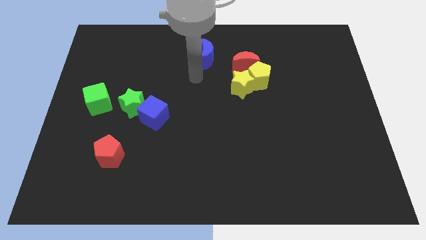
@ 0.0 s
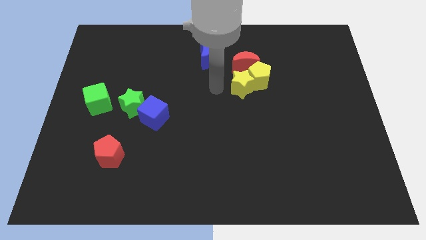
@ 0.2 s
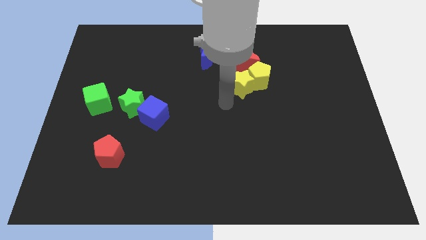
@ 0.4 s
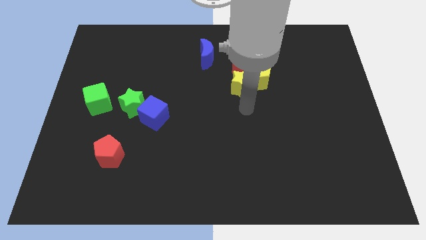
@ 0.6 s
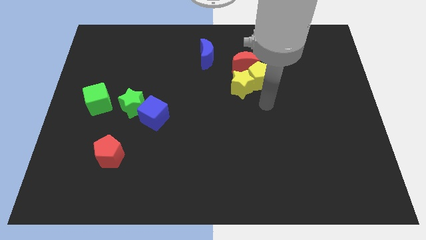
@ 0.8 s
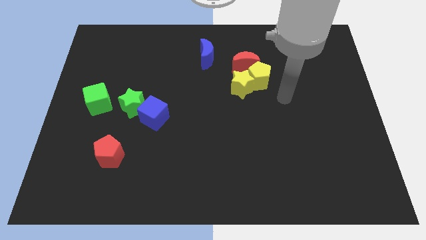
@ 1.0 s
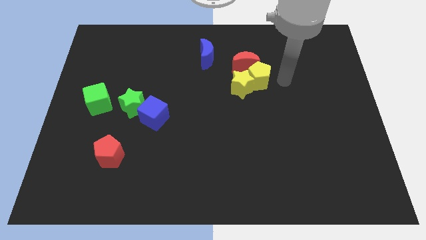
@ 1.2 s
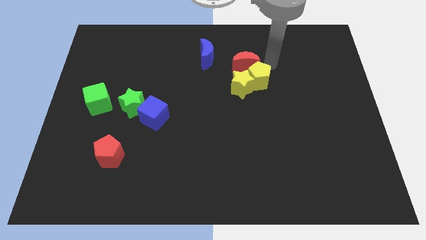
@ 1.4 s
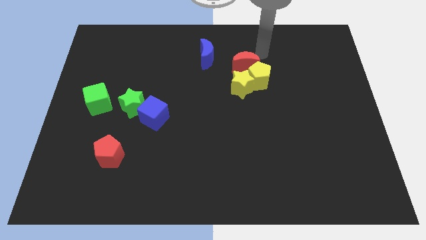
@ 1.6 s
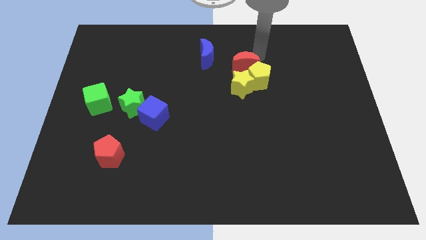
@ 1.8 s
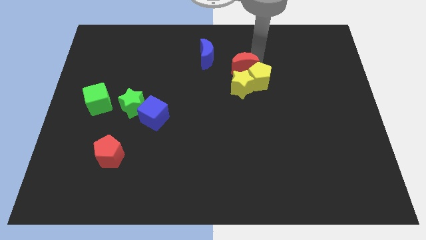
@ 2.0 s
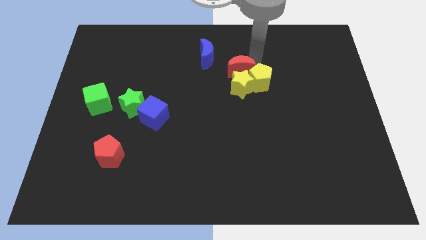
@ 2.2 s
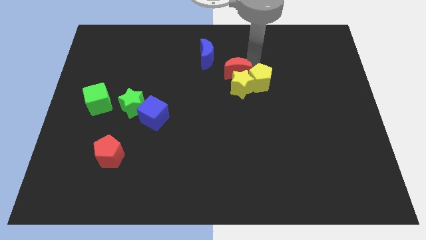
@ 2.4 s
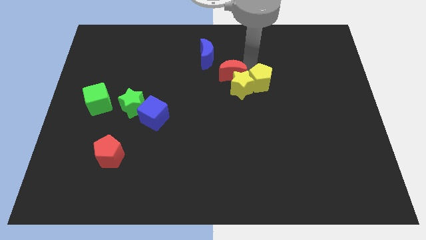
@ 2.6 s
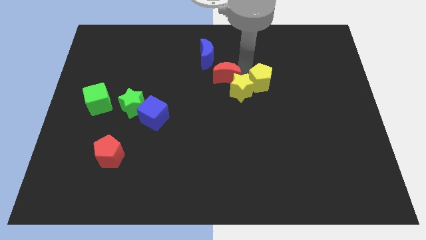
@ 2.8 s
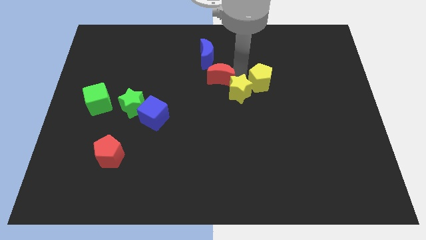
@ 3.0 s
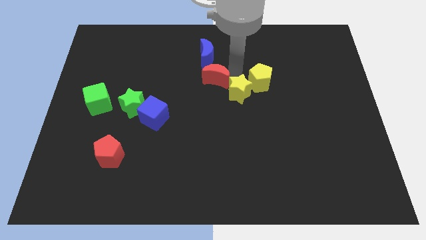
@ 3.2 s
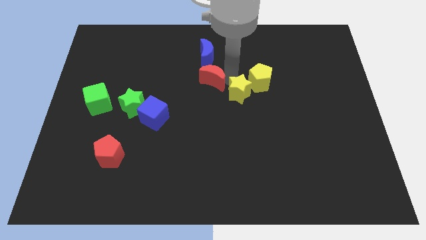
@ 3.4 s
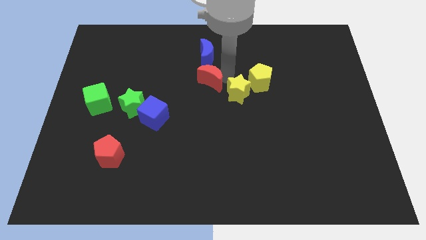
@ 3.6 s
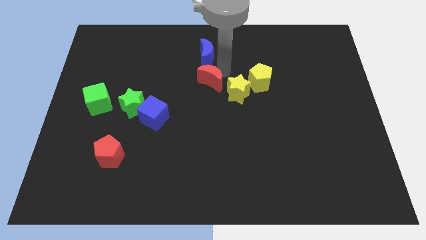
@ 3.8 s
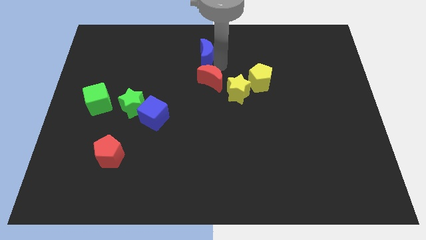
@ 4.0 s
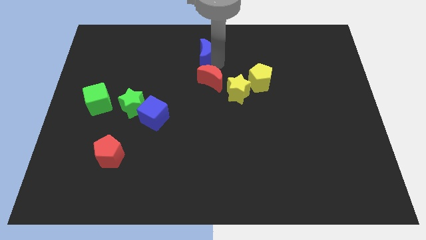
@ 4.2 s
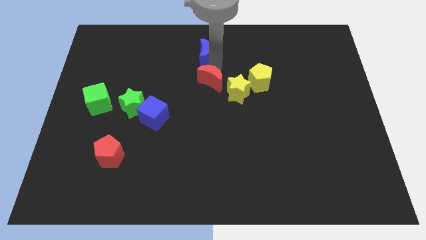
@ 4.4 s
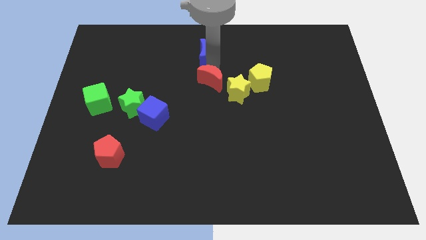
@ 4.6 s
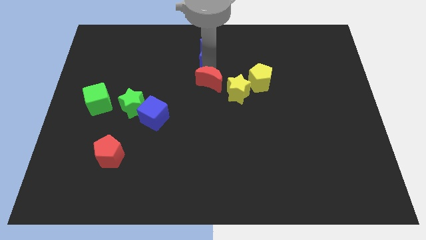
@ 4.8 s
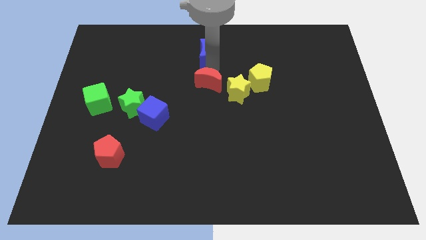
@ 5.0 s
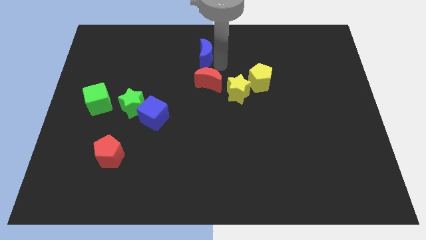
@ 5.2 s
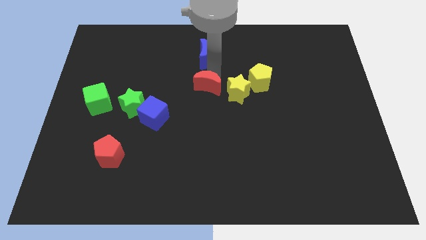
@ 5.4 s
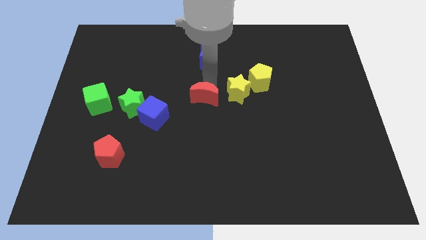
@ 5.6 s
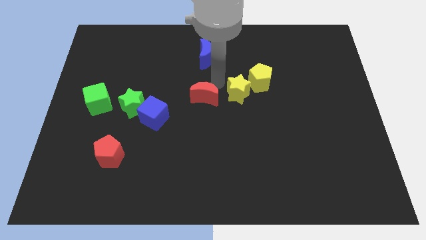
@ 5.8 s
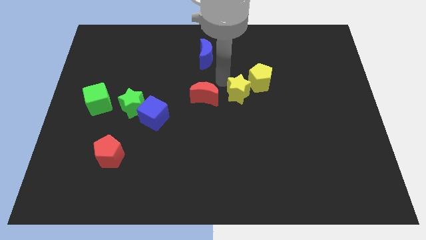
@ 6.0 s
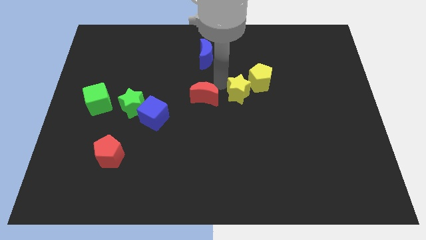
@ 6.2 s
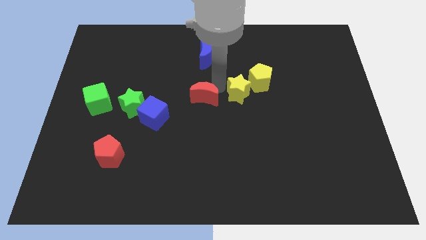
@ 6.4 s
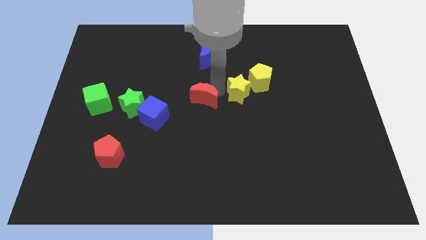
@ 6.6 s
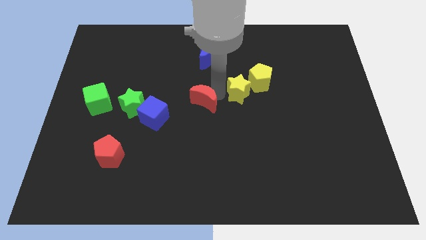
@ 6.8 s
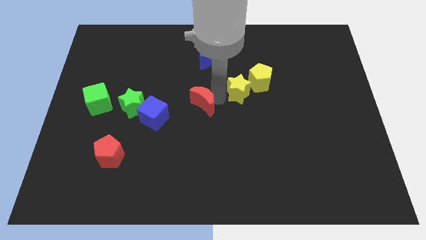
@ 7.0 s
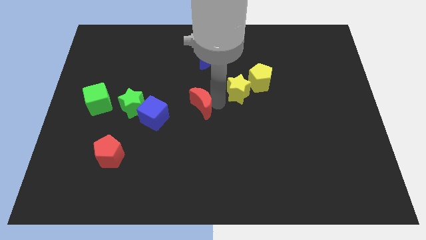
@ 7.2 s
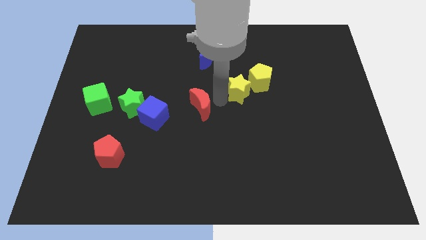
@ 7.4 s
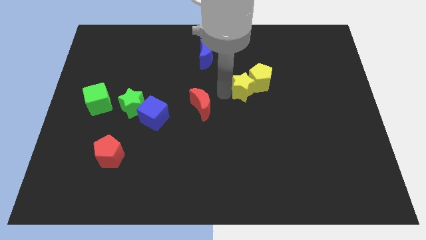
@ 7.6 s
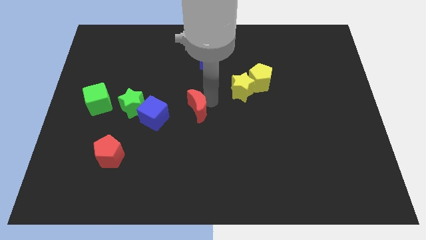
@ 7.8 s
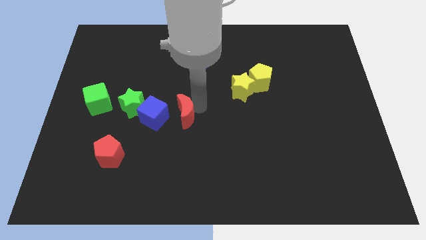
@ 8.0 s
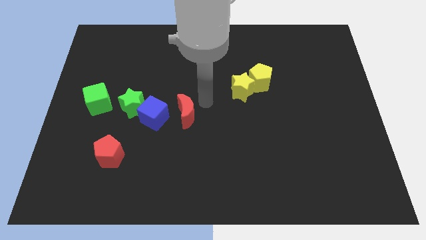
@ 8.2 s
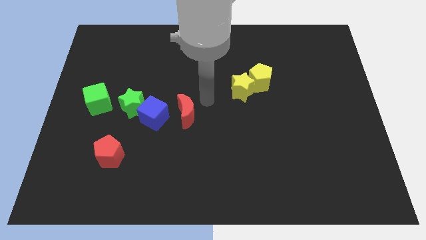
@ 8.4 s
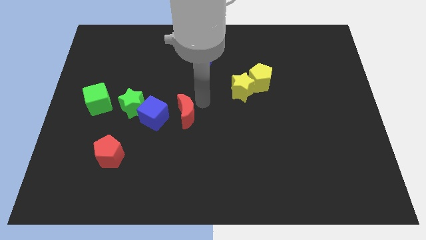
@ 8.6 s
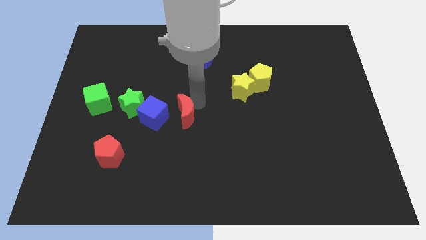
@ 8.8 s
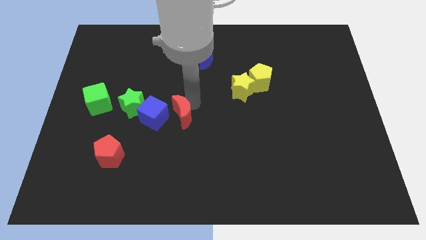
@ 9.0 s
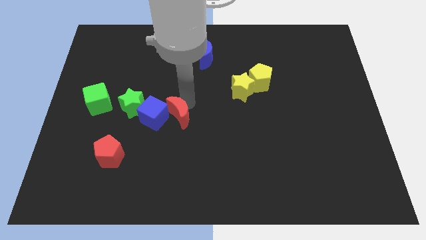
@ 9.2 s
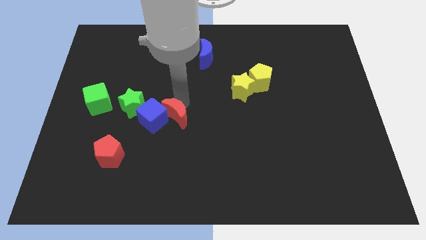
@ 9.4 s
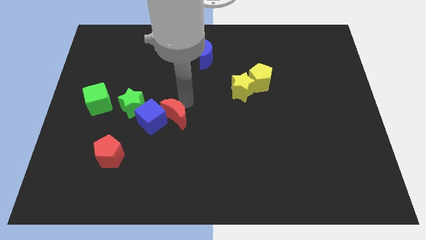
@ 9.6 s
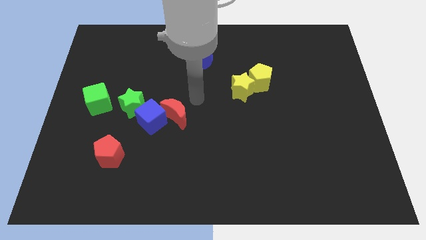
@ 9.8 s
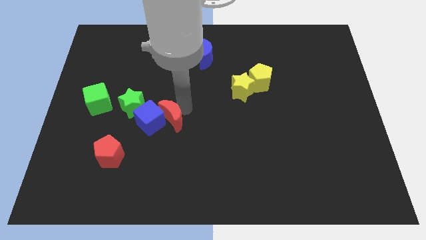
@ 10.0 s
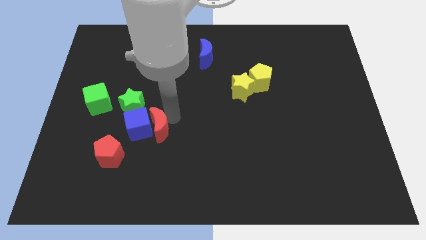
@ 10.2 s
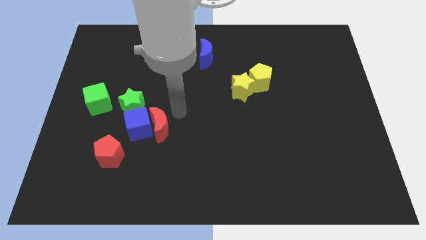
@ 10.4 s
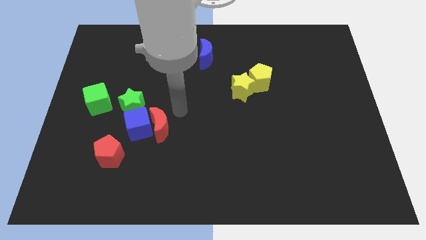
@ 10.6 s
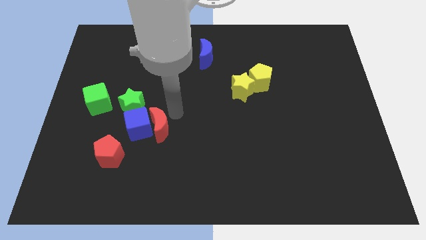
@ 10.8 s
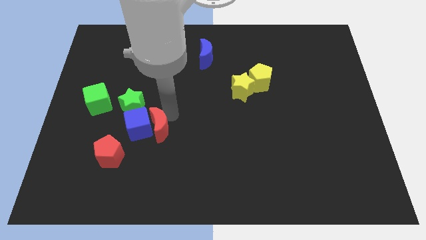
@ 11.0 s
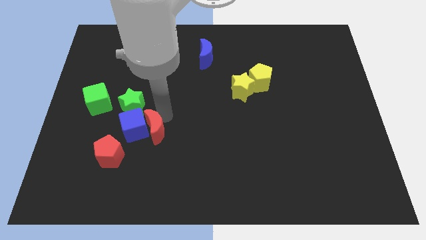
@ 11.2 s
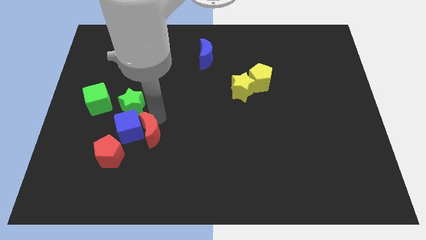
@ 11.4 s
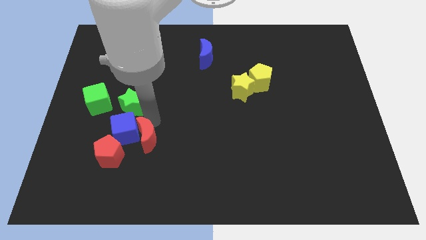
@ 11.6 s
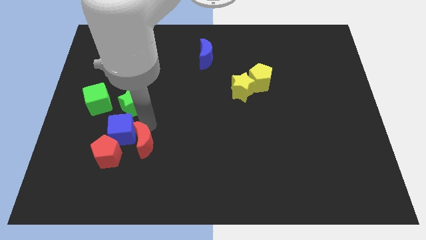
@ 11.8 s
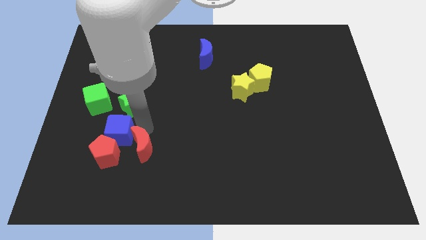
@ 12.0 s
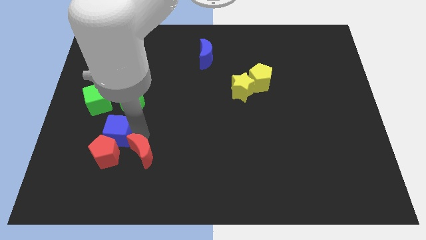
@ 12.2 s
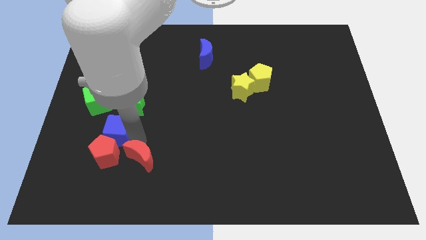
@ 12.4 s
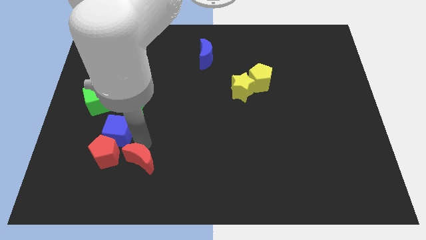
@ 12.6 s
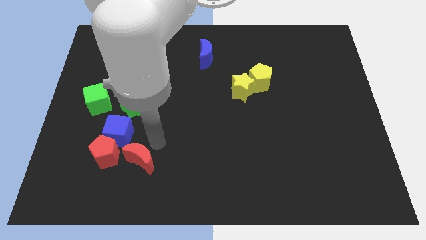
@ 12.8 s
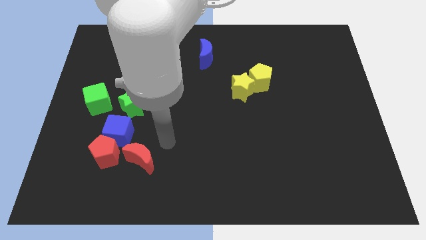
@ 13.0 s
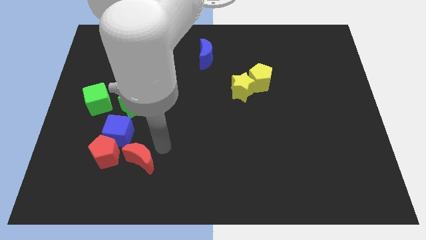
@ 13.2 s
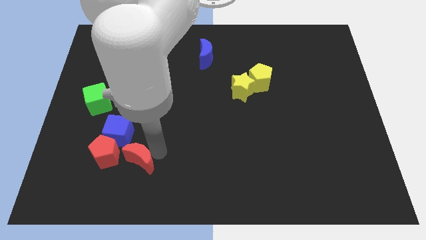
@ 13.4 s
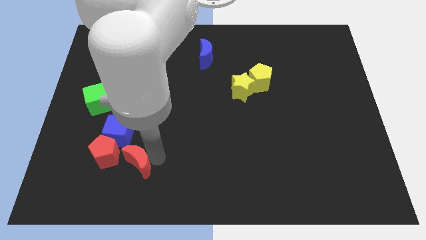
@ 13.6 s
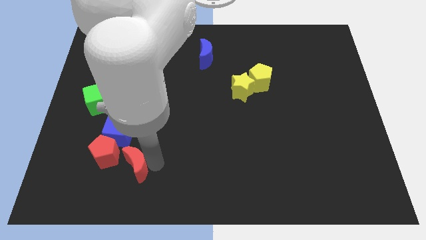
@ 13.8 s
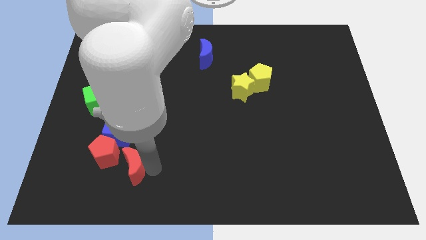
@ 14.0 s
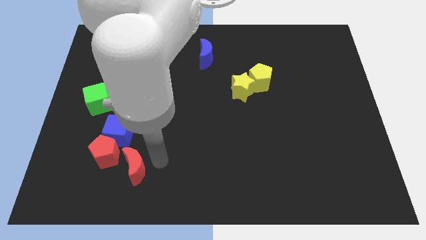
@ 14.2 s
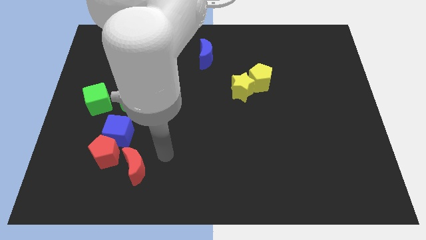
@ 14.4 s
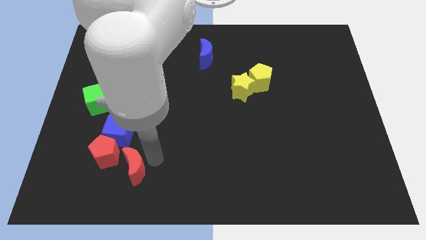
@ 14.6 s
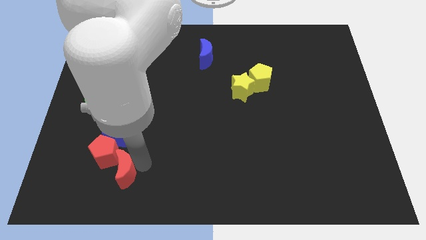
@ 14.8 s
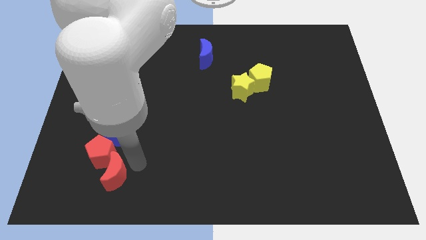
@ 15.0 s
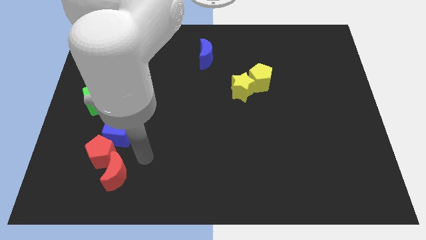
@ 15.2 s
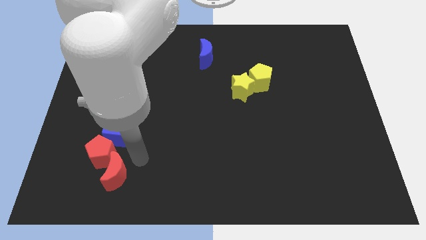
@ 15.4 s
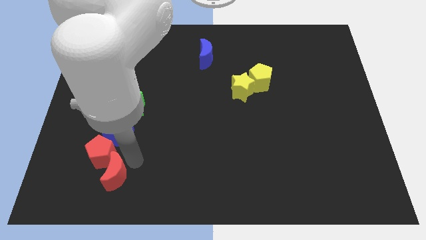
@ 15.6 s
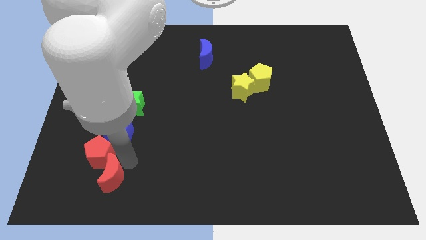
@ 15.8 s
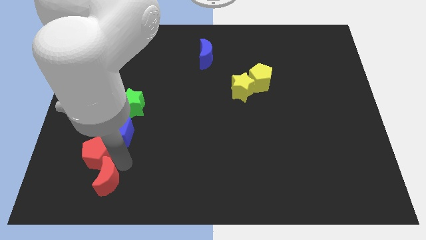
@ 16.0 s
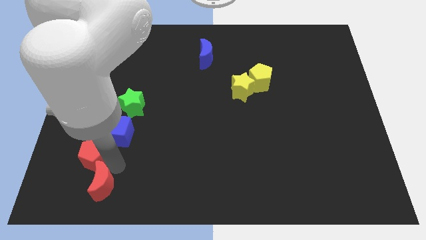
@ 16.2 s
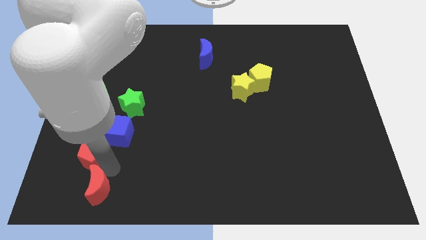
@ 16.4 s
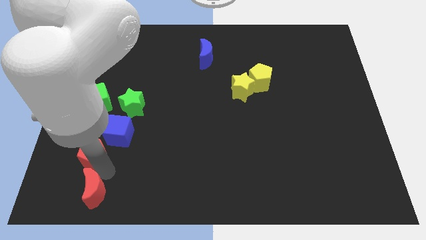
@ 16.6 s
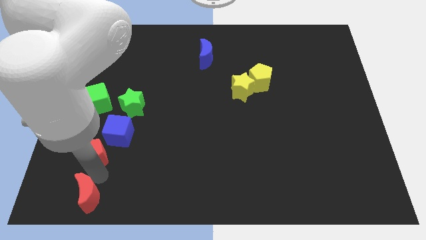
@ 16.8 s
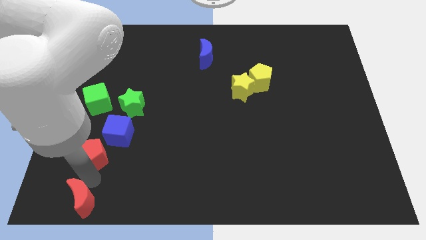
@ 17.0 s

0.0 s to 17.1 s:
move the red moon to the lower left corner
